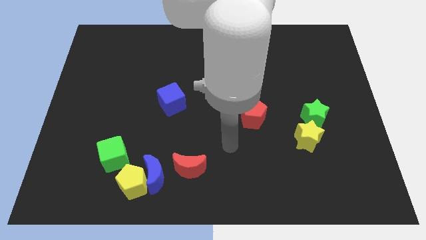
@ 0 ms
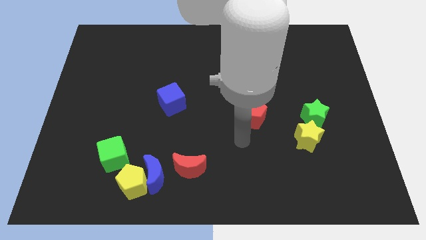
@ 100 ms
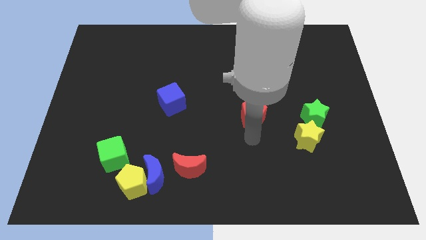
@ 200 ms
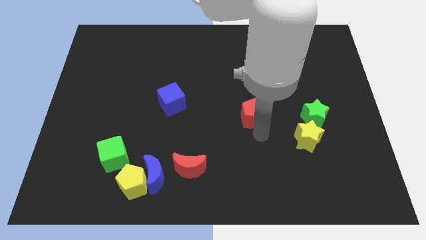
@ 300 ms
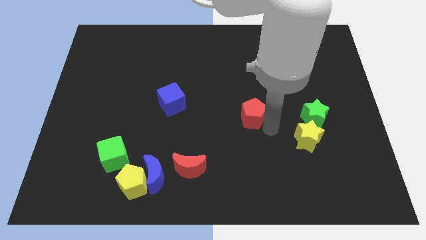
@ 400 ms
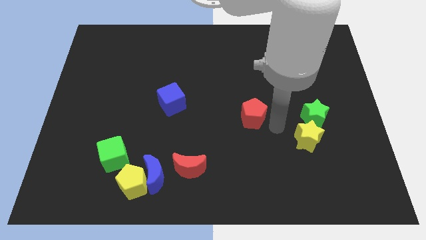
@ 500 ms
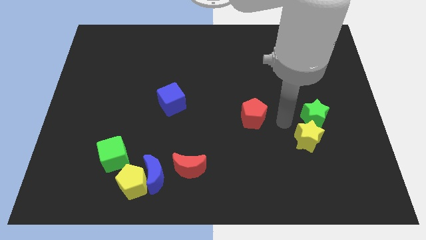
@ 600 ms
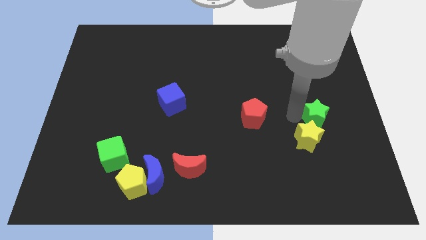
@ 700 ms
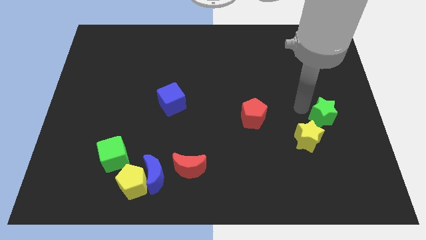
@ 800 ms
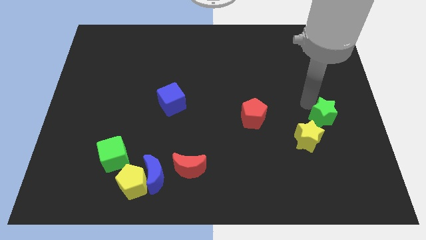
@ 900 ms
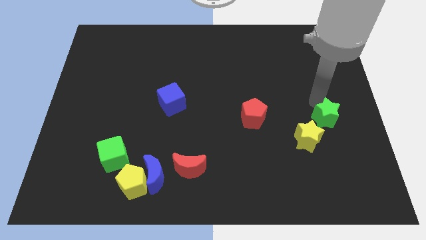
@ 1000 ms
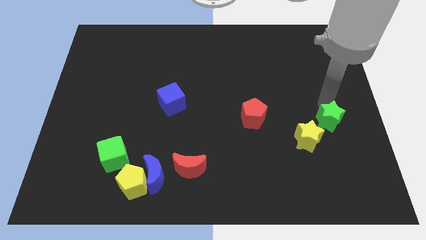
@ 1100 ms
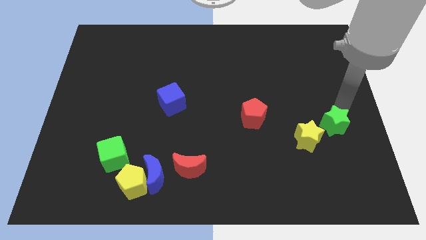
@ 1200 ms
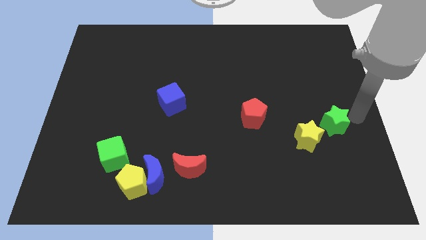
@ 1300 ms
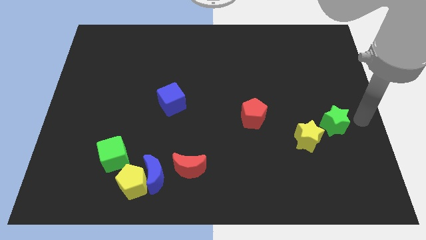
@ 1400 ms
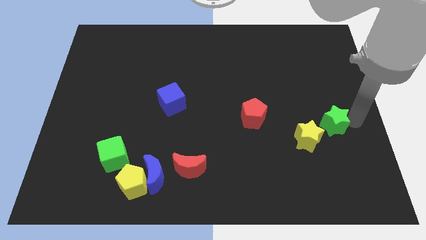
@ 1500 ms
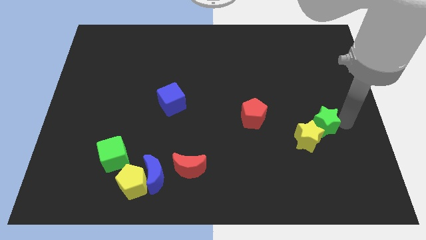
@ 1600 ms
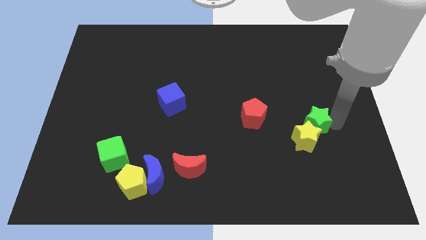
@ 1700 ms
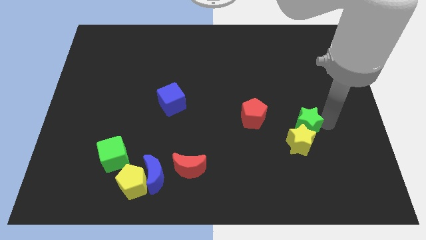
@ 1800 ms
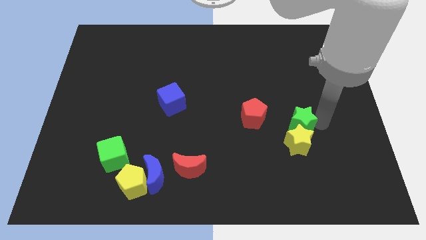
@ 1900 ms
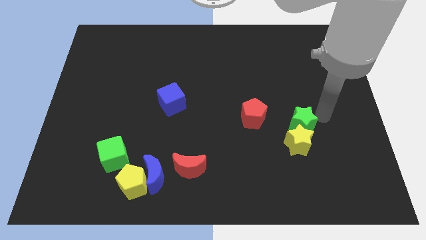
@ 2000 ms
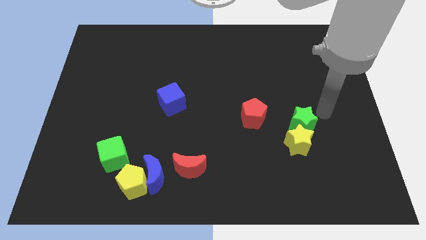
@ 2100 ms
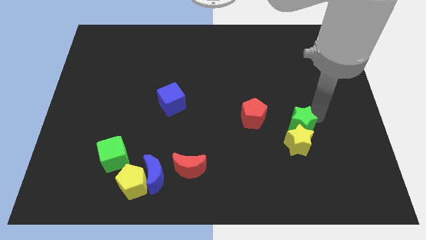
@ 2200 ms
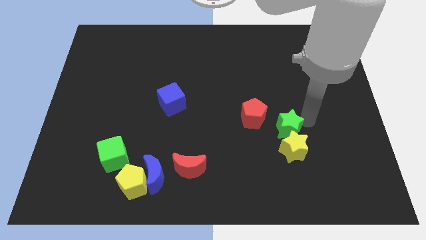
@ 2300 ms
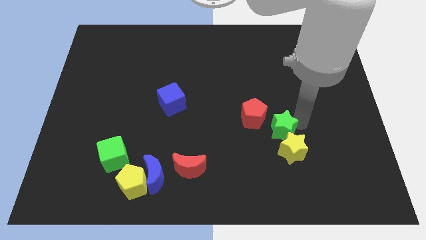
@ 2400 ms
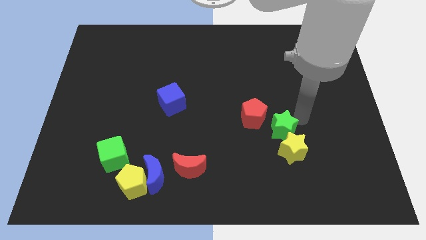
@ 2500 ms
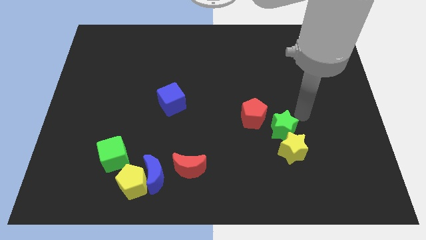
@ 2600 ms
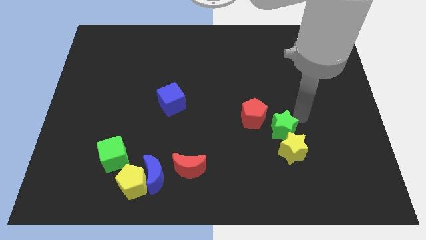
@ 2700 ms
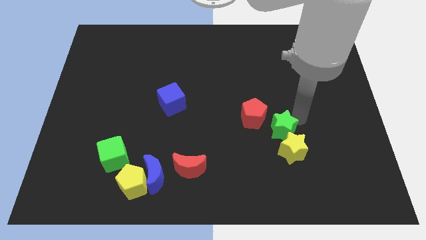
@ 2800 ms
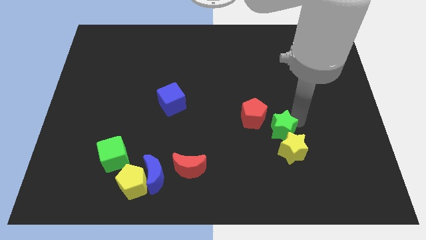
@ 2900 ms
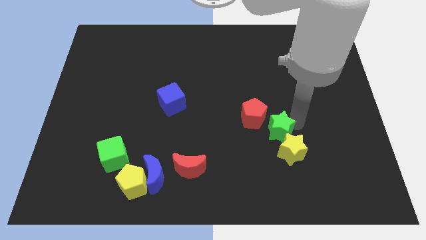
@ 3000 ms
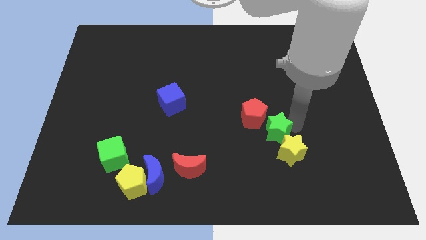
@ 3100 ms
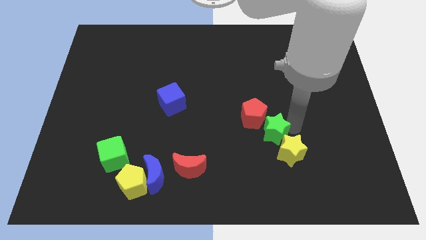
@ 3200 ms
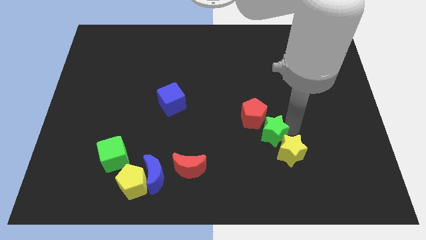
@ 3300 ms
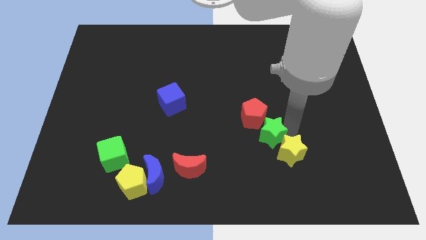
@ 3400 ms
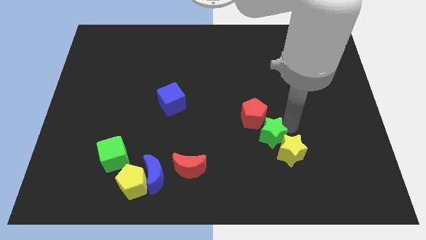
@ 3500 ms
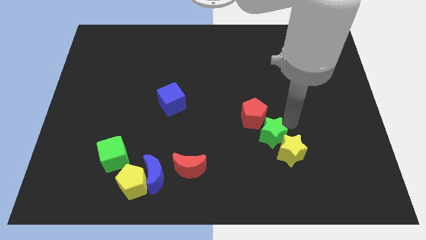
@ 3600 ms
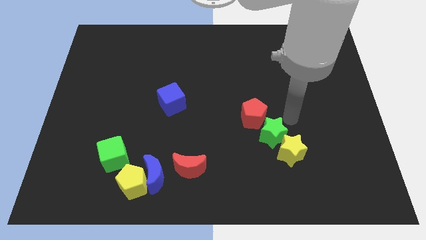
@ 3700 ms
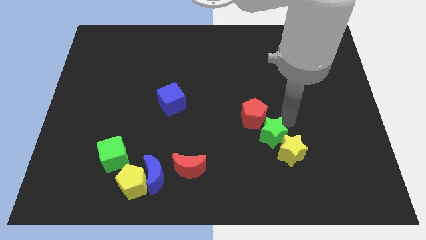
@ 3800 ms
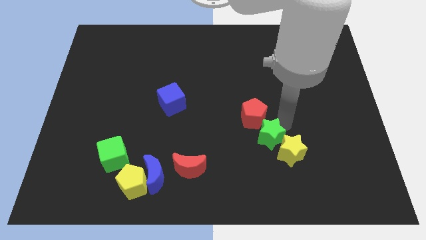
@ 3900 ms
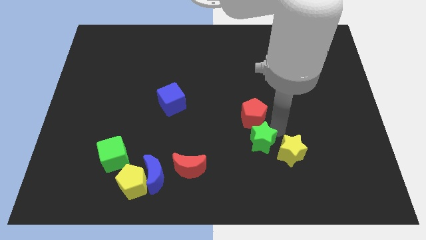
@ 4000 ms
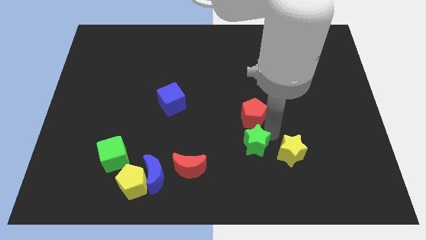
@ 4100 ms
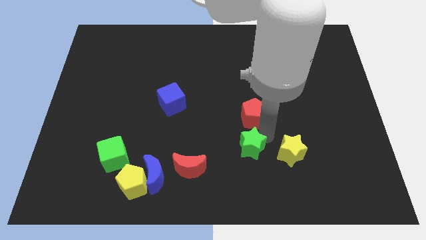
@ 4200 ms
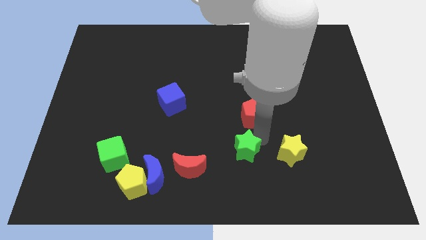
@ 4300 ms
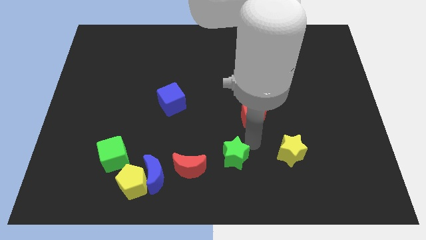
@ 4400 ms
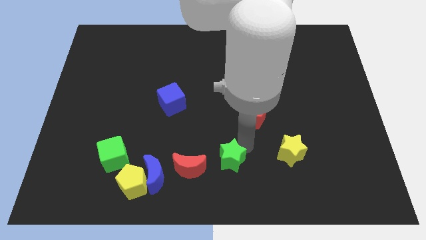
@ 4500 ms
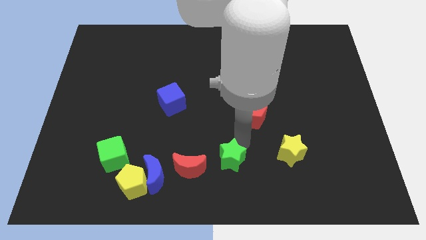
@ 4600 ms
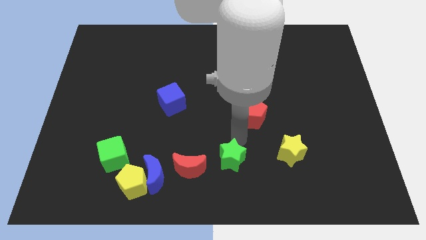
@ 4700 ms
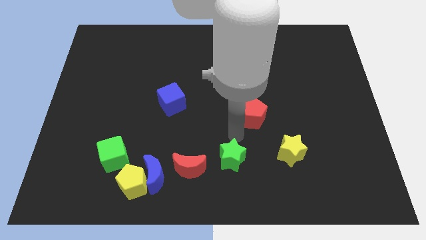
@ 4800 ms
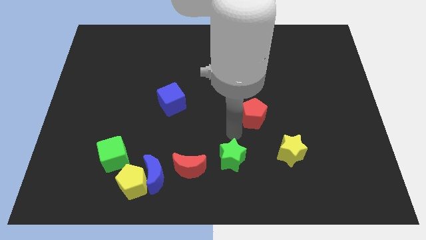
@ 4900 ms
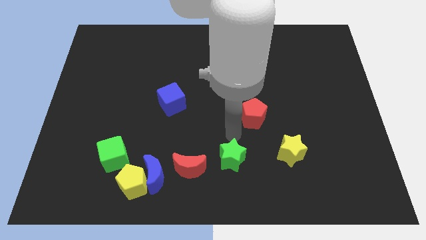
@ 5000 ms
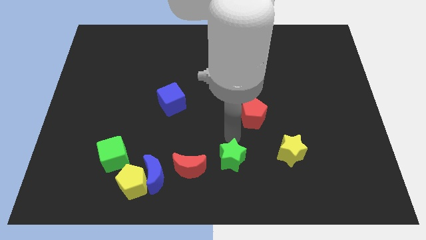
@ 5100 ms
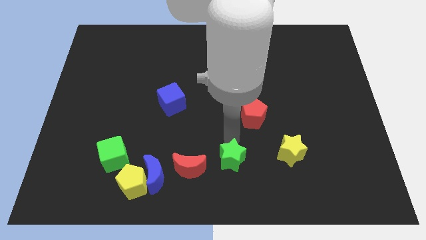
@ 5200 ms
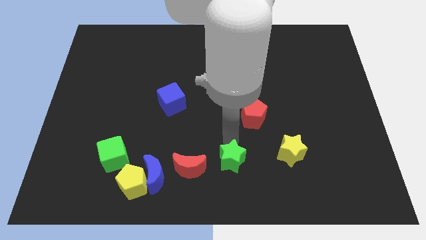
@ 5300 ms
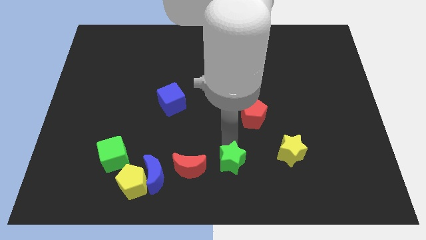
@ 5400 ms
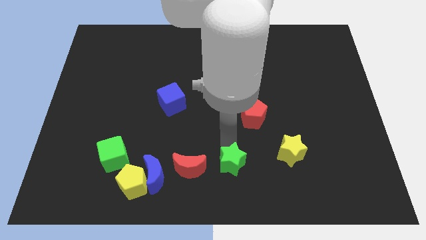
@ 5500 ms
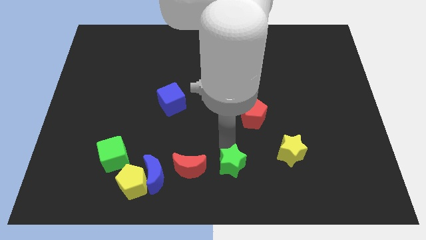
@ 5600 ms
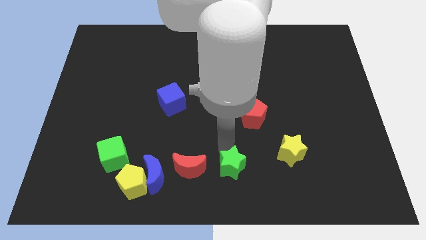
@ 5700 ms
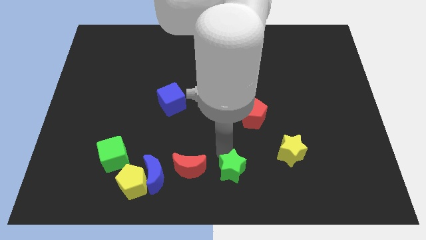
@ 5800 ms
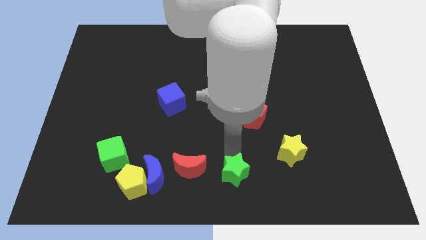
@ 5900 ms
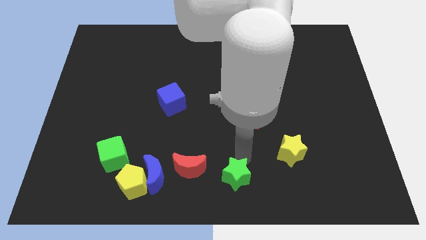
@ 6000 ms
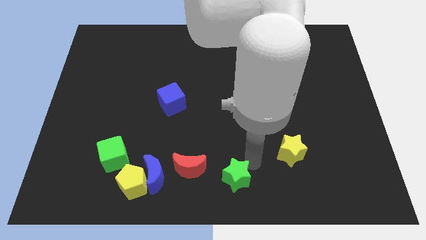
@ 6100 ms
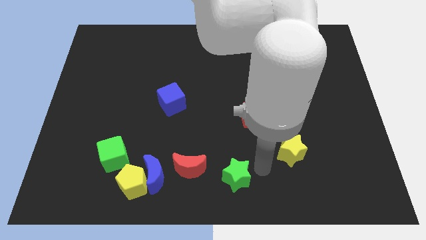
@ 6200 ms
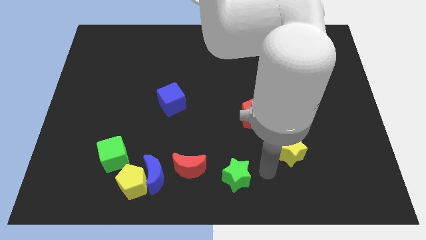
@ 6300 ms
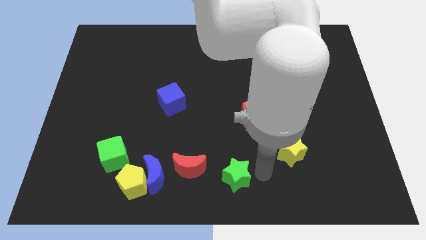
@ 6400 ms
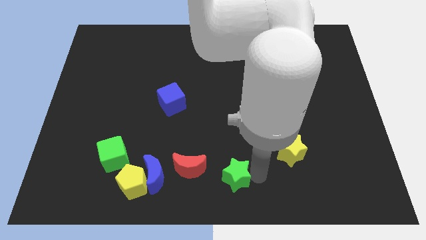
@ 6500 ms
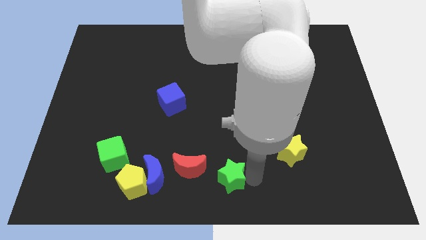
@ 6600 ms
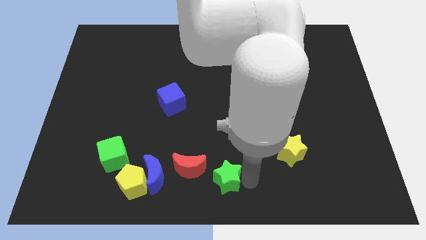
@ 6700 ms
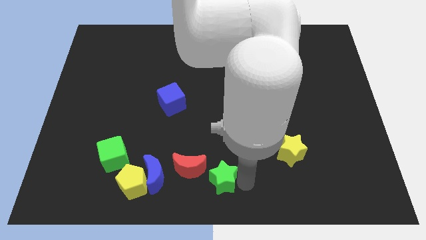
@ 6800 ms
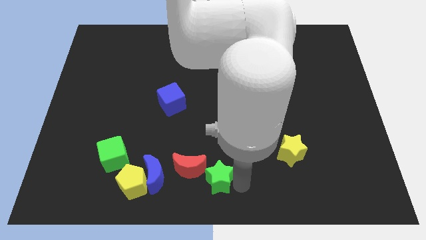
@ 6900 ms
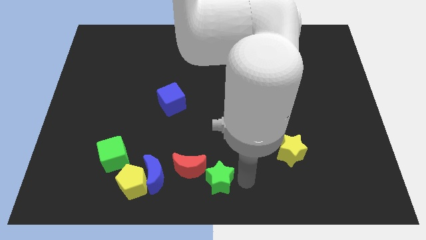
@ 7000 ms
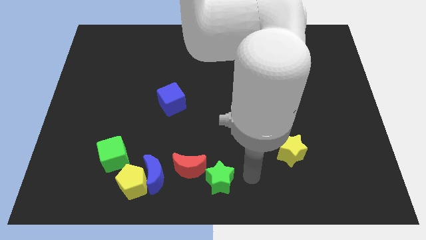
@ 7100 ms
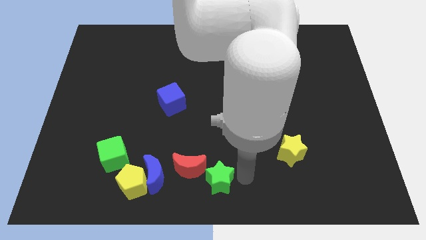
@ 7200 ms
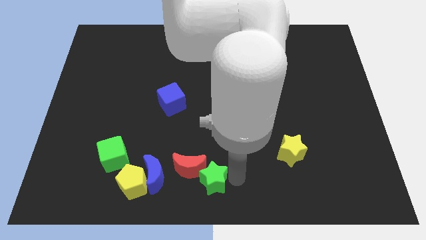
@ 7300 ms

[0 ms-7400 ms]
slide the green star to the right side of the yellow pentagon
